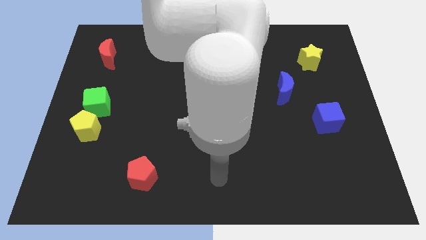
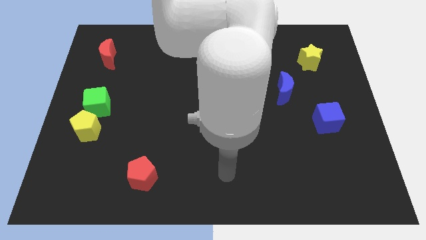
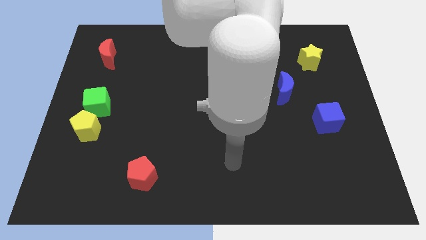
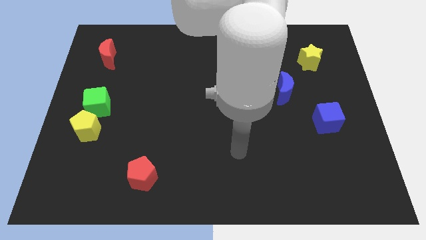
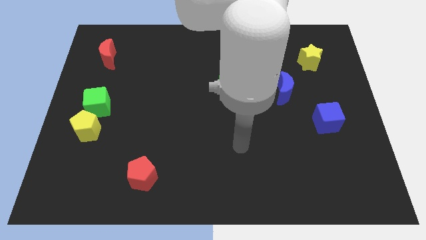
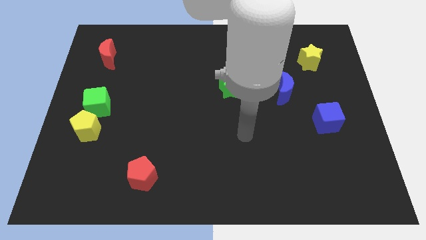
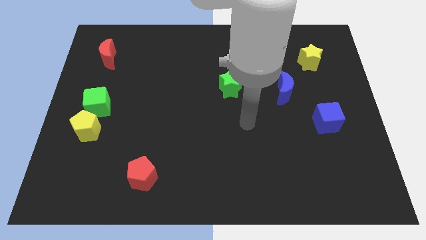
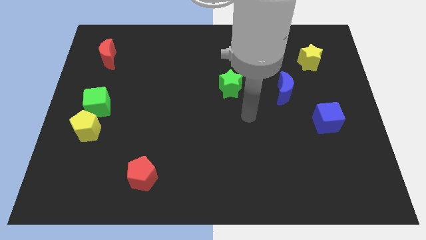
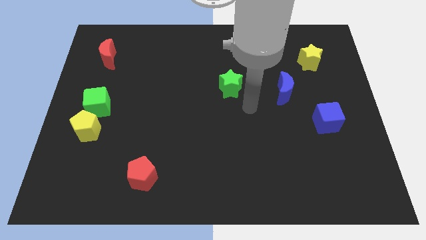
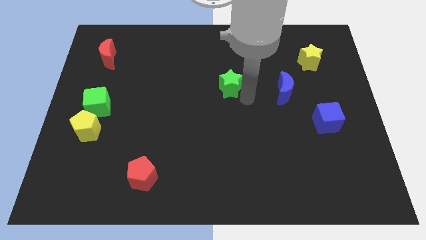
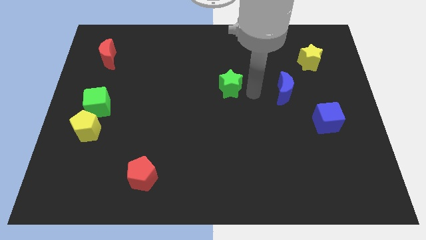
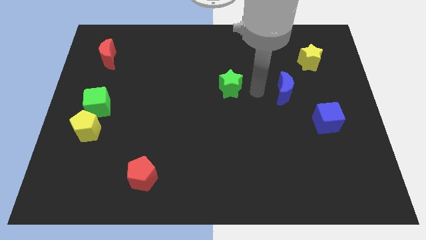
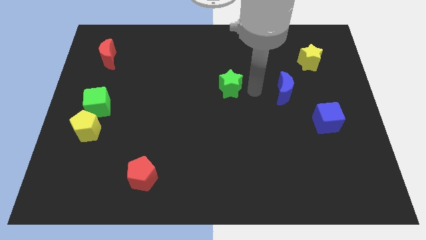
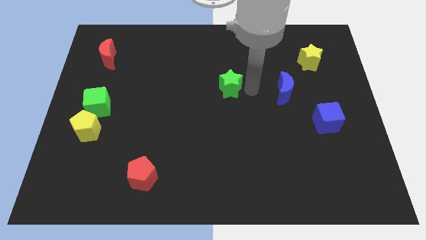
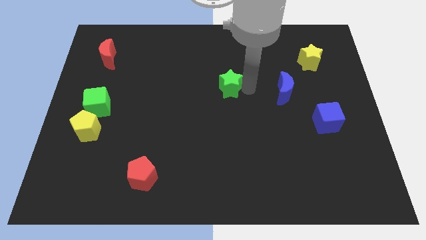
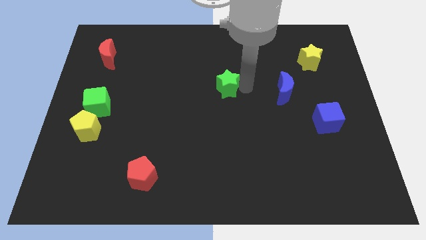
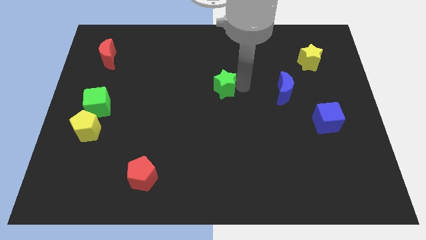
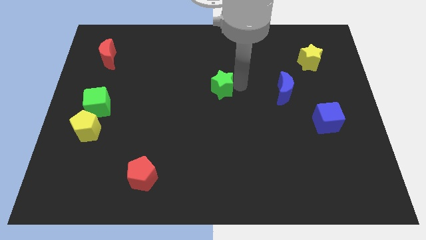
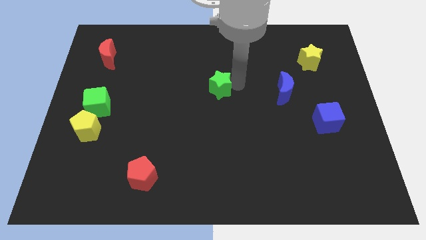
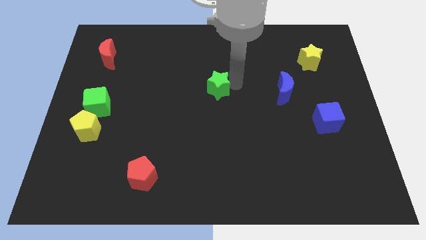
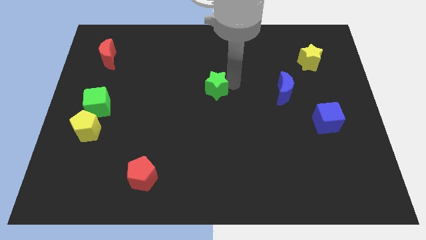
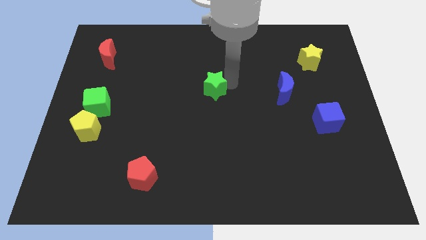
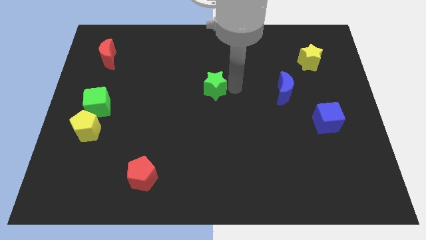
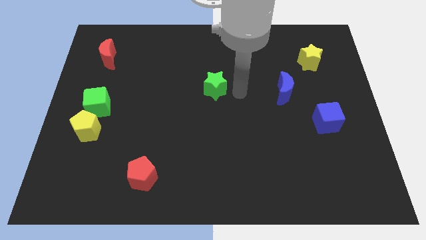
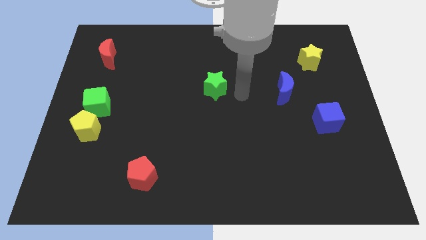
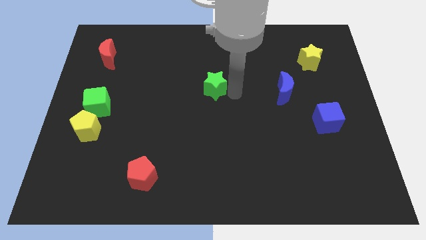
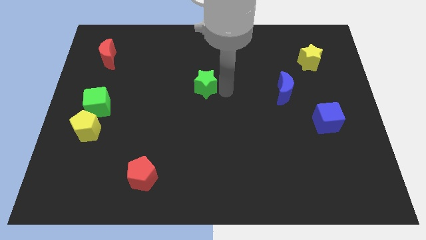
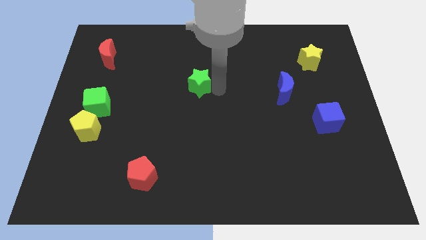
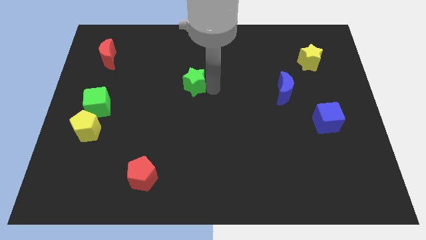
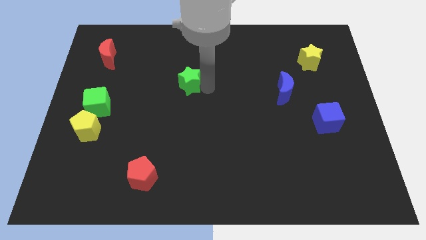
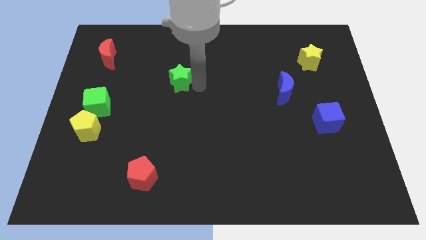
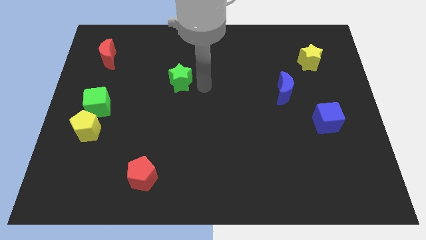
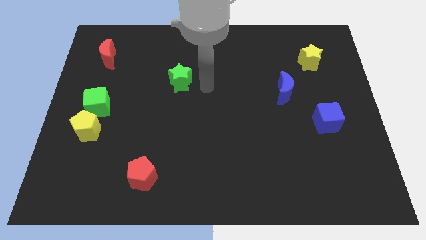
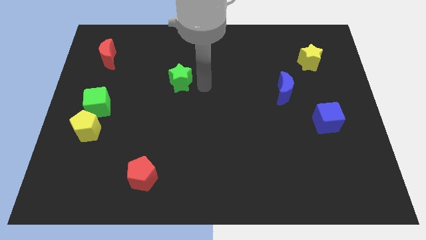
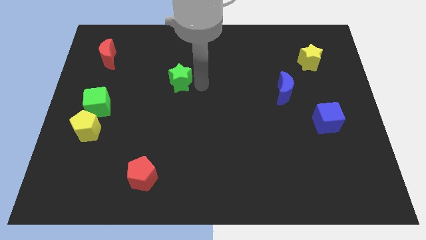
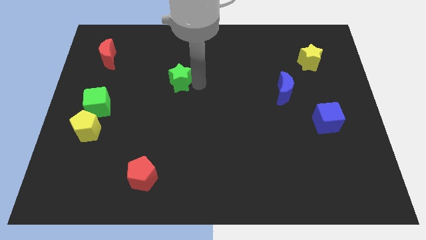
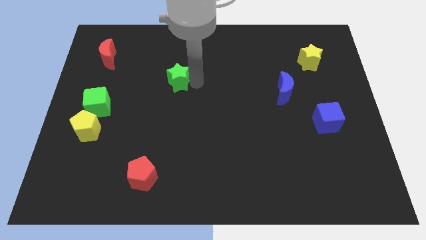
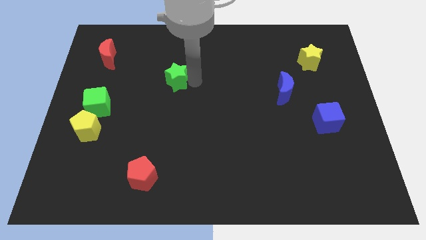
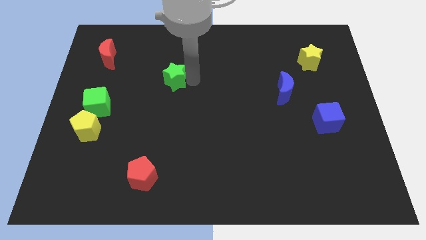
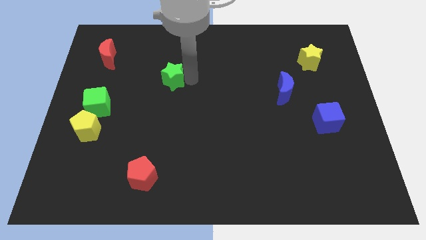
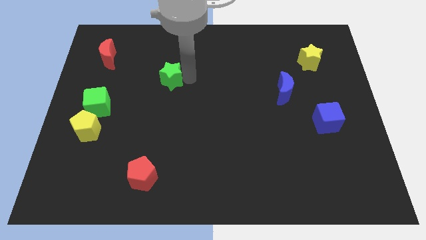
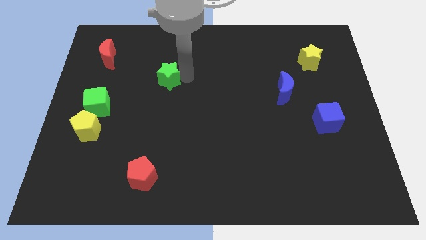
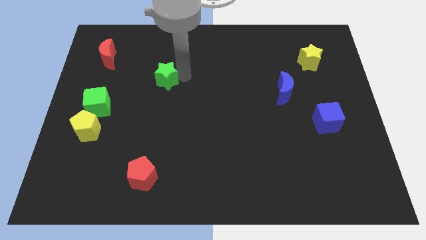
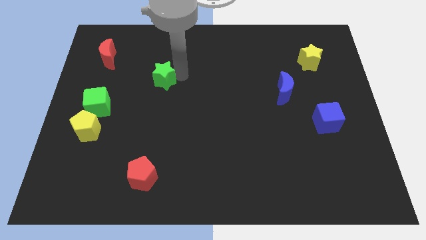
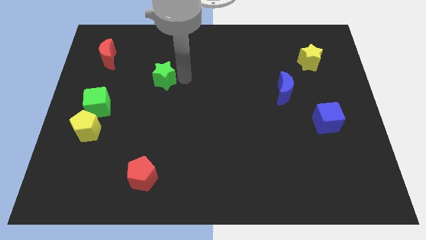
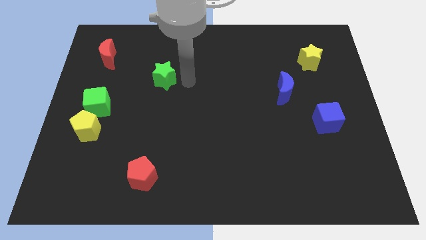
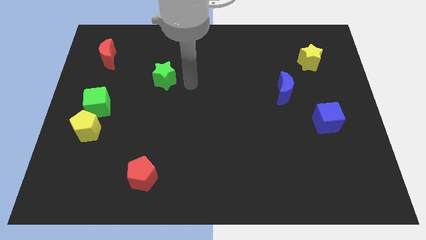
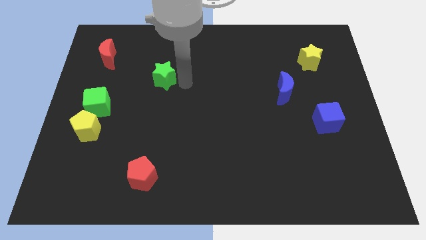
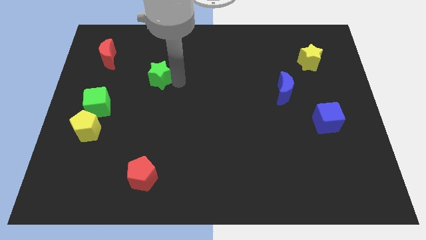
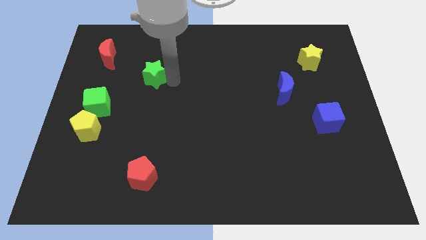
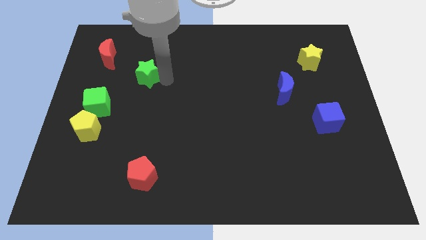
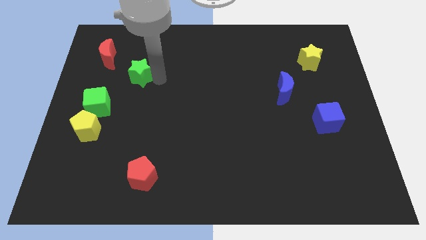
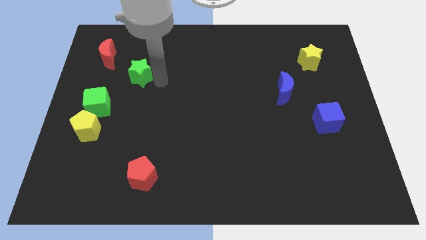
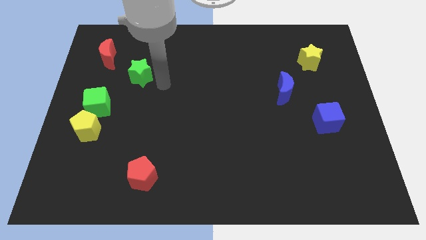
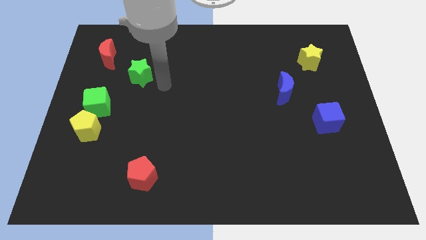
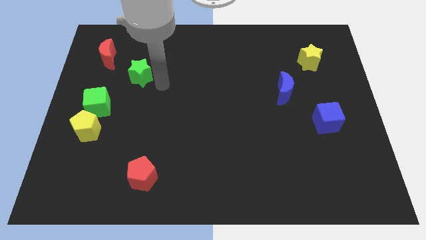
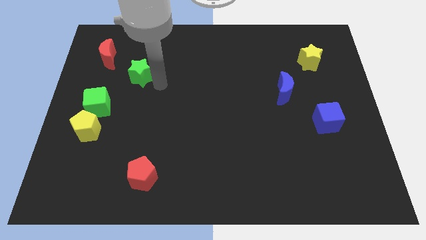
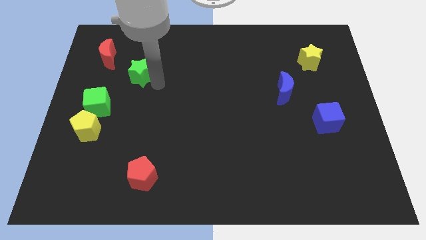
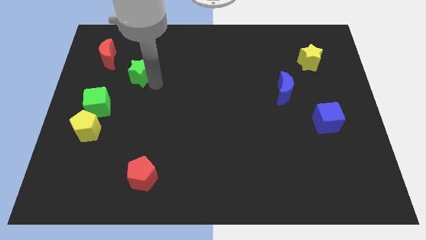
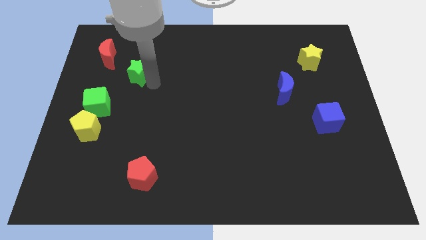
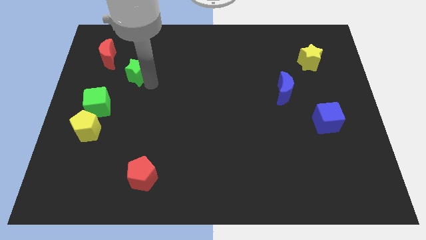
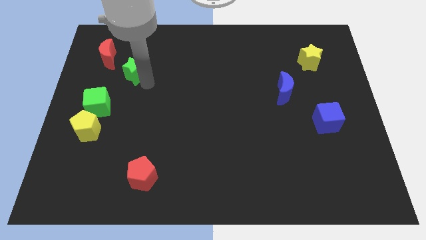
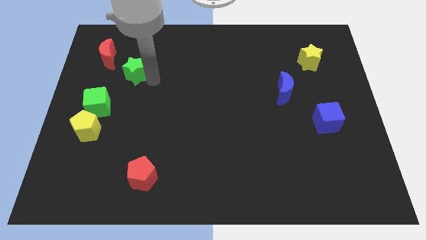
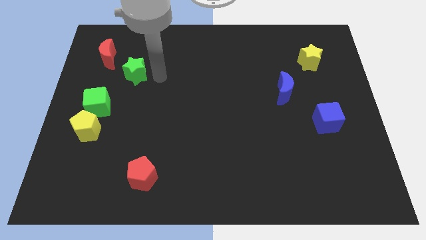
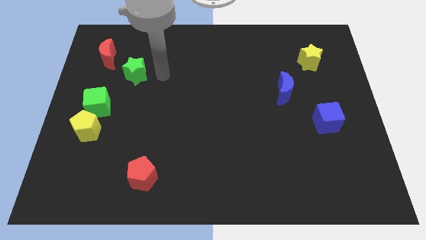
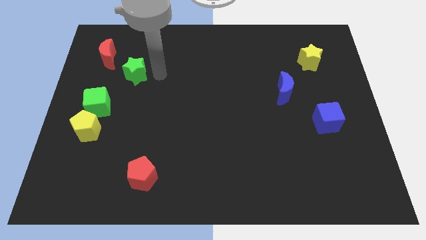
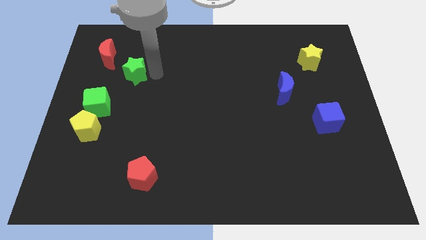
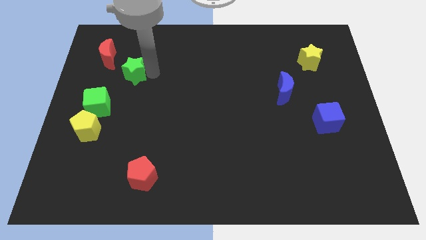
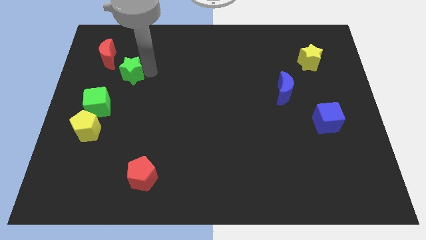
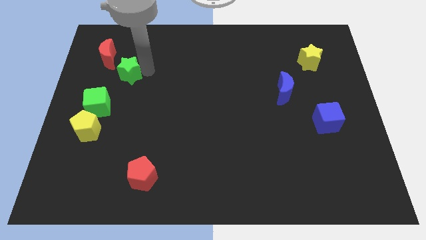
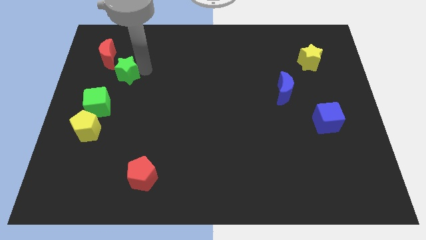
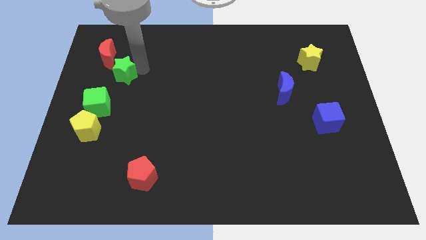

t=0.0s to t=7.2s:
slide the green star above the green cube

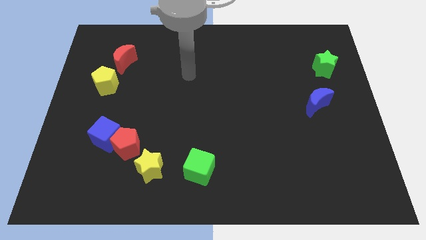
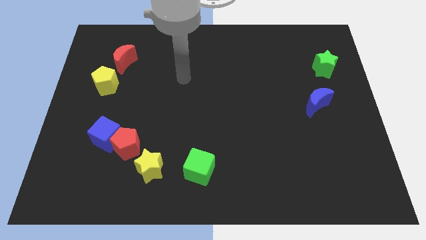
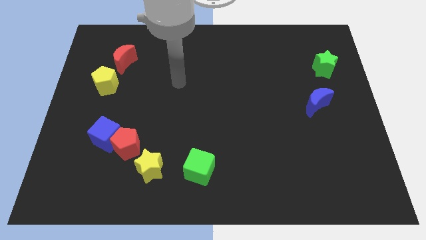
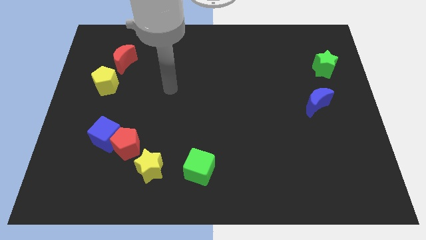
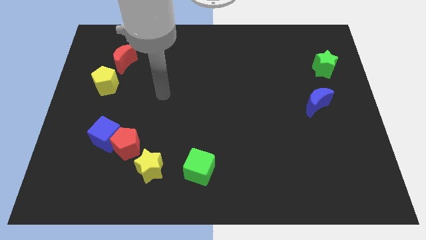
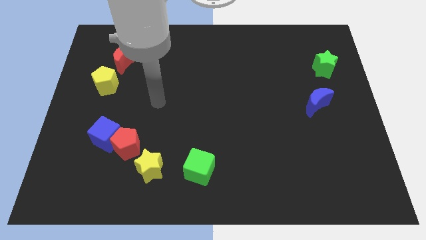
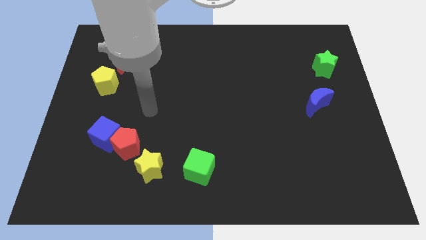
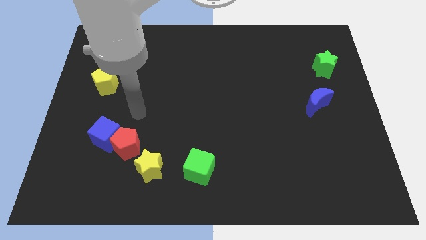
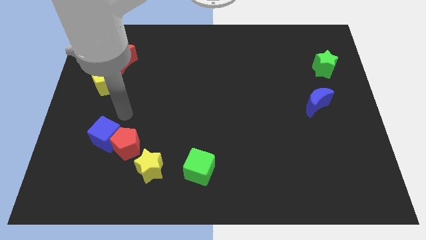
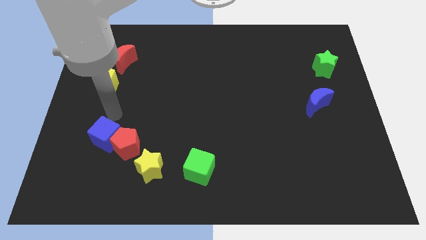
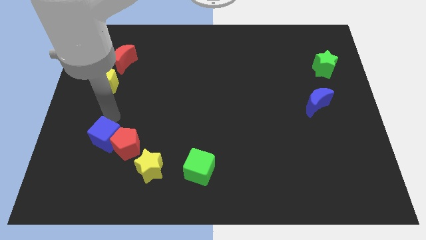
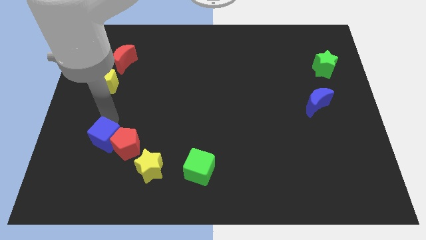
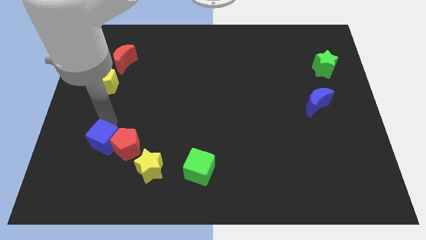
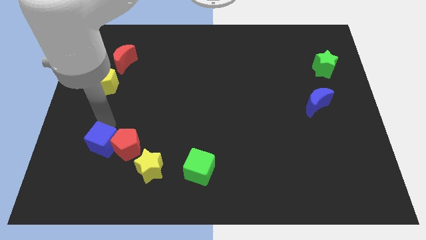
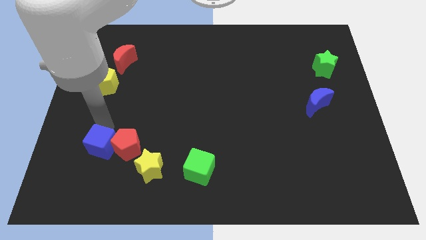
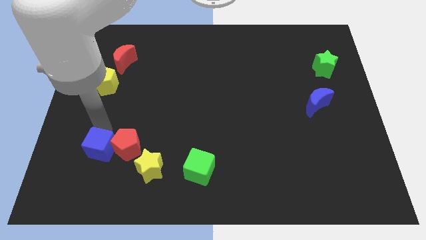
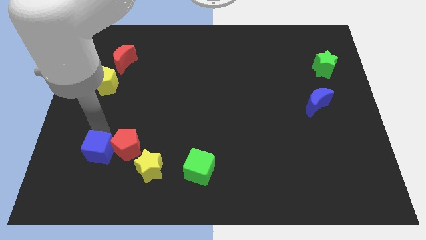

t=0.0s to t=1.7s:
slide the blue cube to the left side of the yellow star
